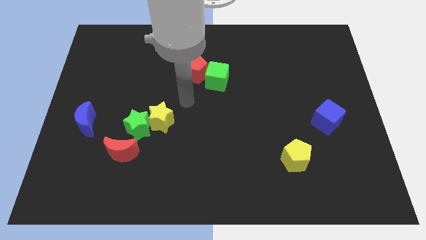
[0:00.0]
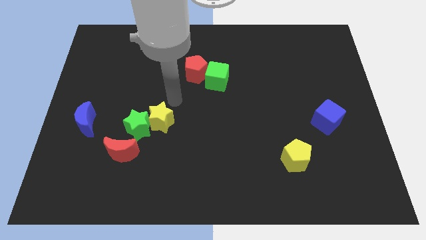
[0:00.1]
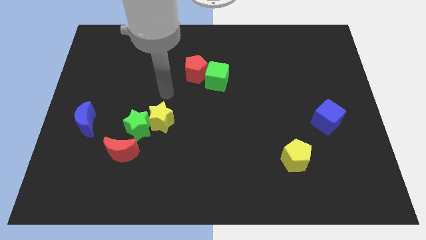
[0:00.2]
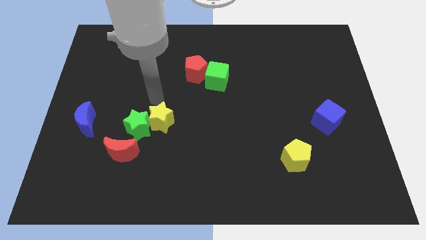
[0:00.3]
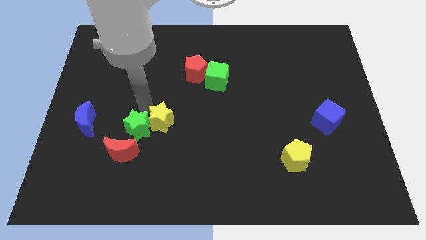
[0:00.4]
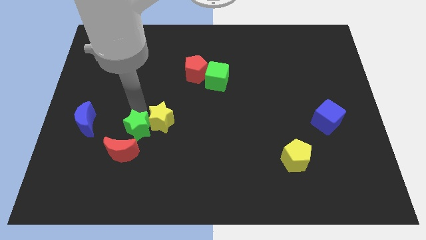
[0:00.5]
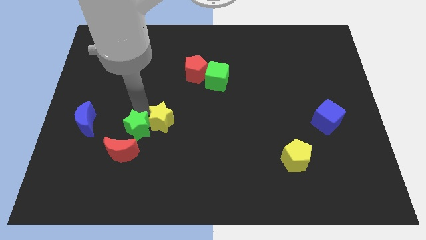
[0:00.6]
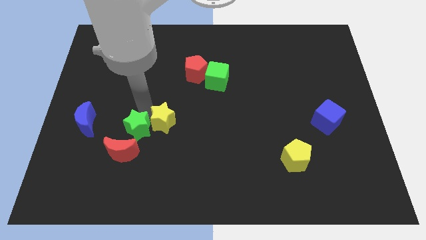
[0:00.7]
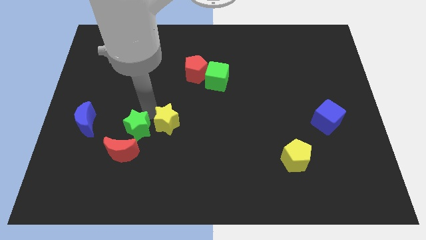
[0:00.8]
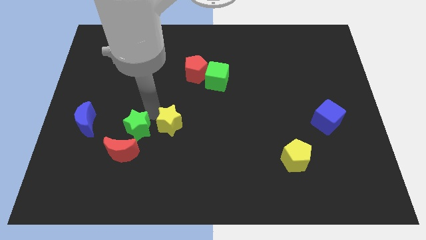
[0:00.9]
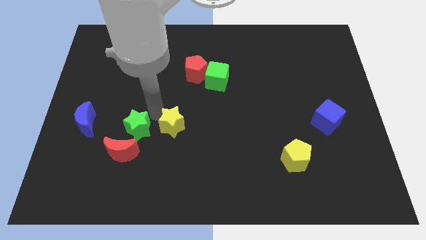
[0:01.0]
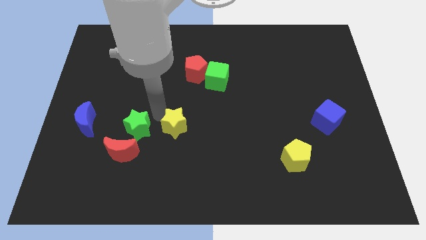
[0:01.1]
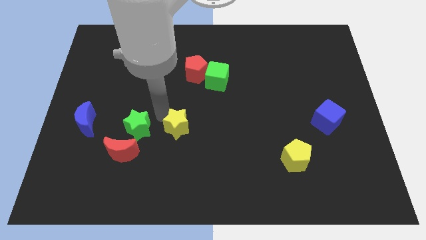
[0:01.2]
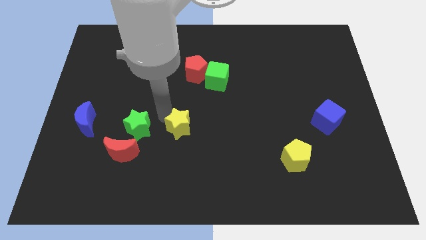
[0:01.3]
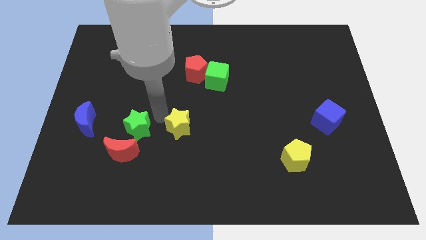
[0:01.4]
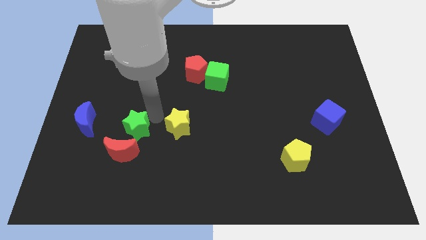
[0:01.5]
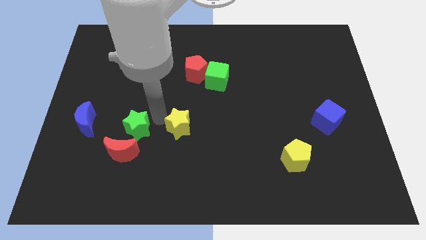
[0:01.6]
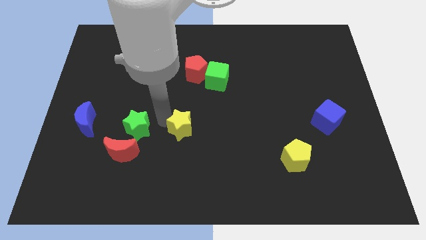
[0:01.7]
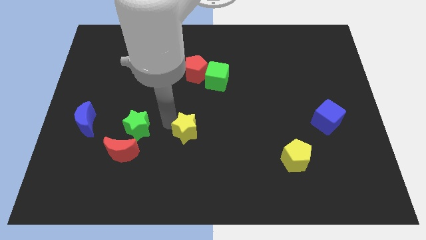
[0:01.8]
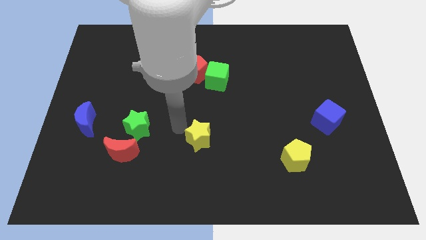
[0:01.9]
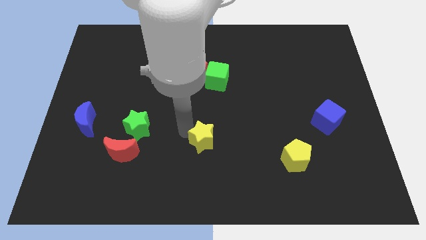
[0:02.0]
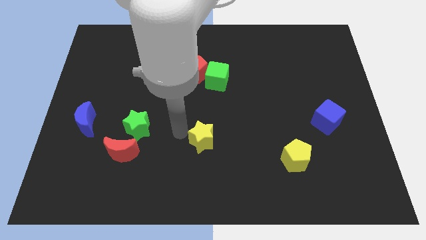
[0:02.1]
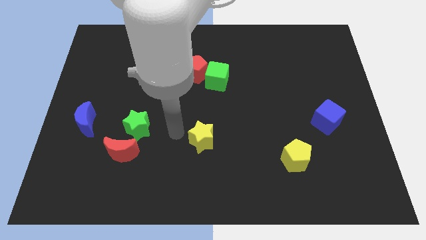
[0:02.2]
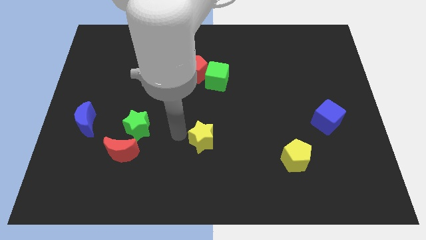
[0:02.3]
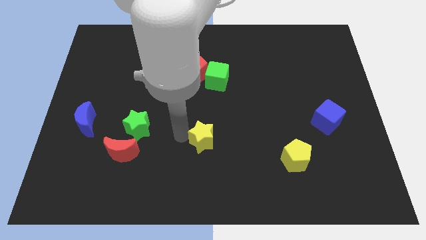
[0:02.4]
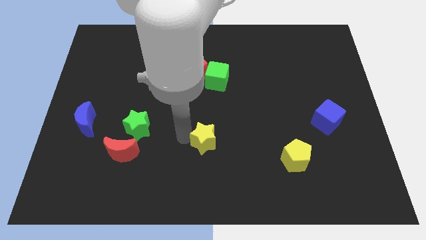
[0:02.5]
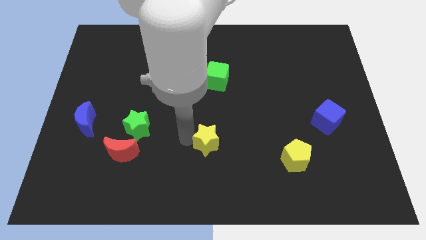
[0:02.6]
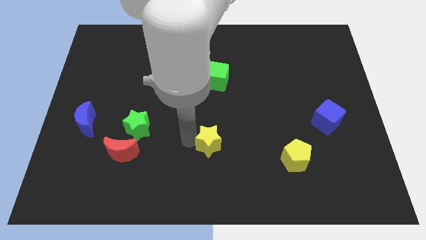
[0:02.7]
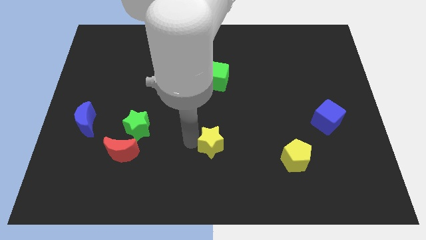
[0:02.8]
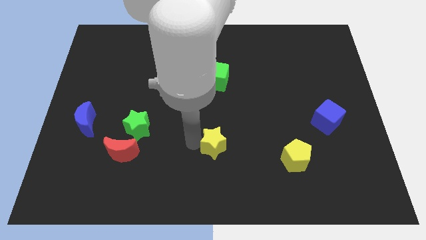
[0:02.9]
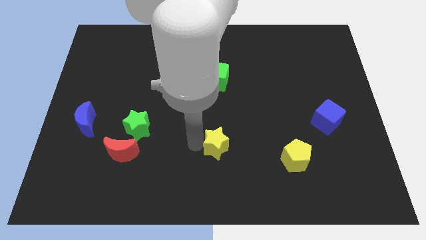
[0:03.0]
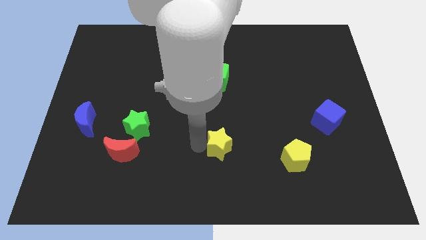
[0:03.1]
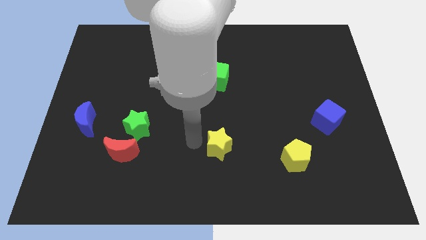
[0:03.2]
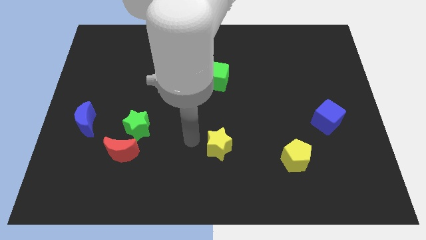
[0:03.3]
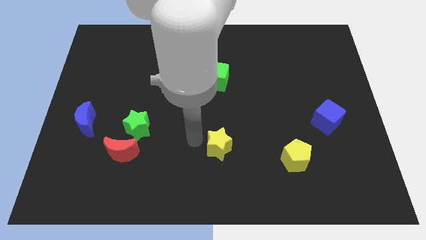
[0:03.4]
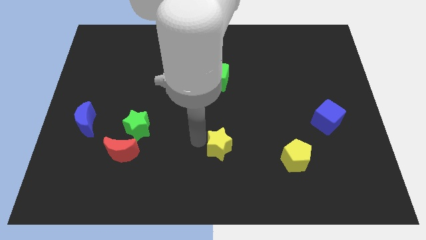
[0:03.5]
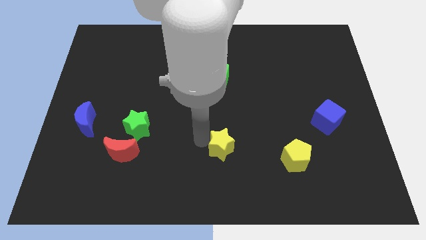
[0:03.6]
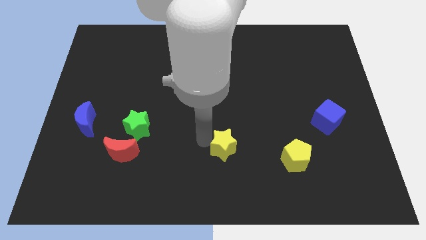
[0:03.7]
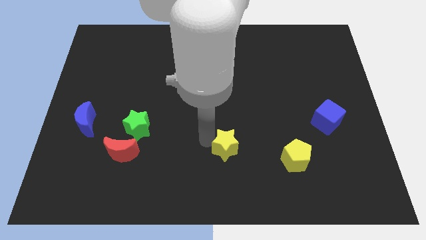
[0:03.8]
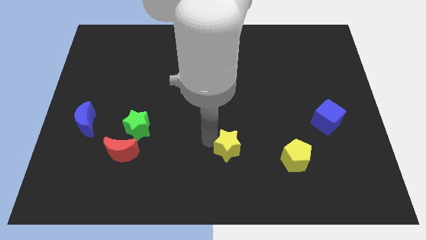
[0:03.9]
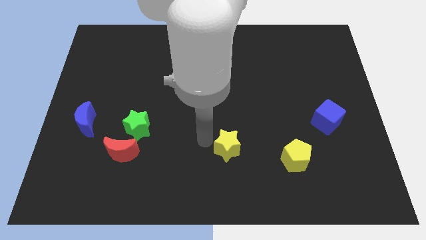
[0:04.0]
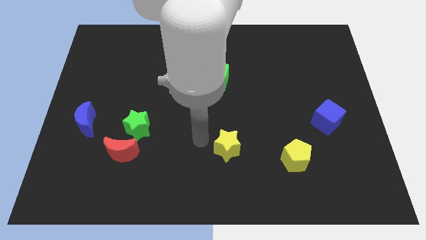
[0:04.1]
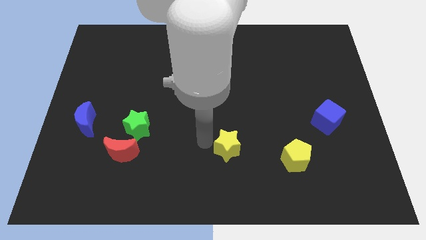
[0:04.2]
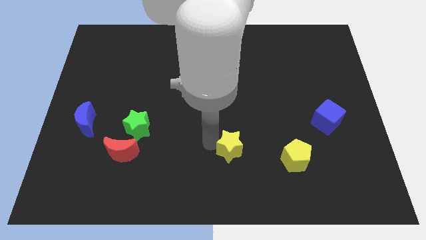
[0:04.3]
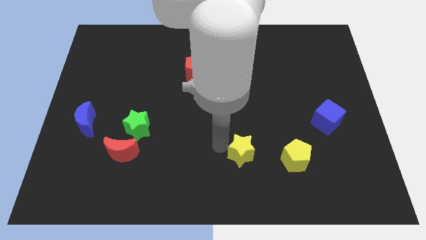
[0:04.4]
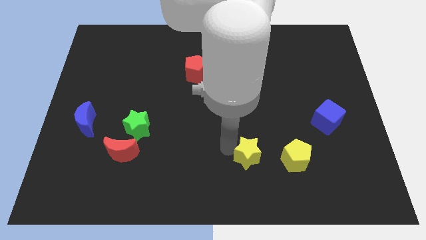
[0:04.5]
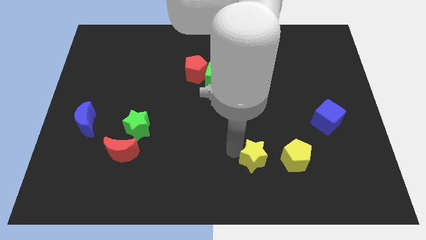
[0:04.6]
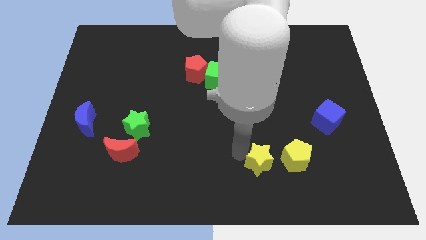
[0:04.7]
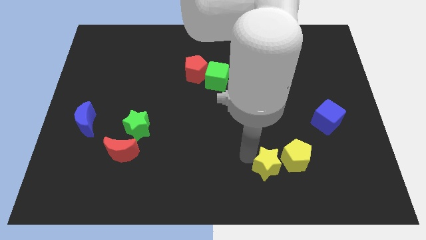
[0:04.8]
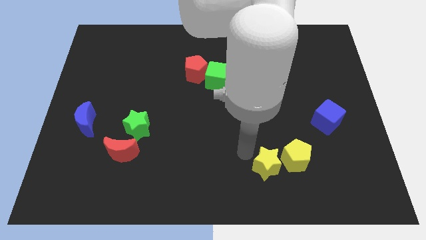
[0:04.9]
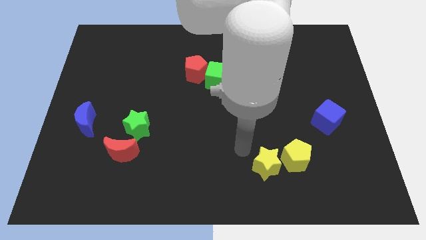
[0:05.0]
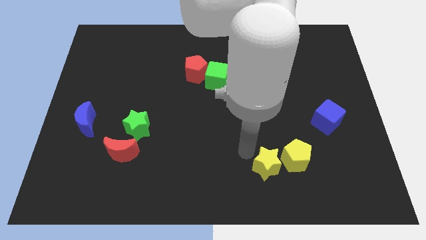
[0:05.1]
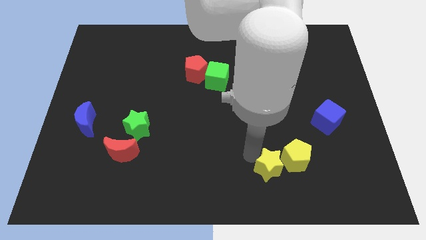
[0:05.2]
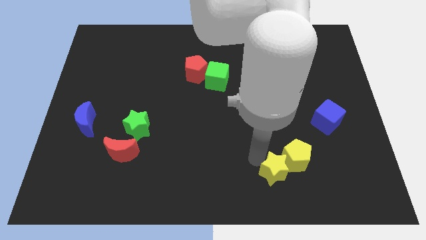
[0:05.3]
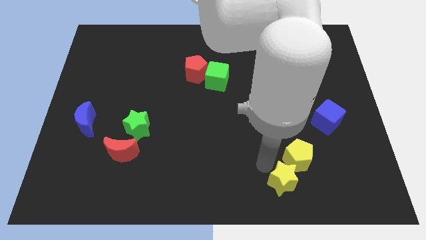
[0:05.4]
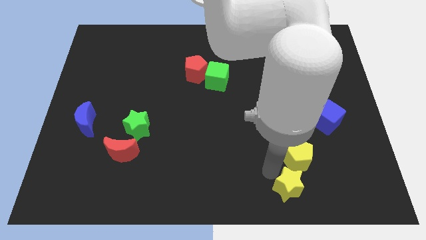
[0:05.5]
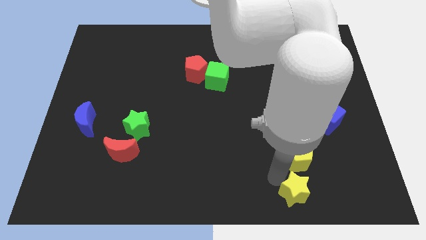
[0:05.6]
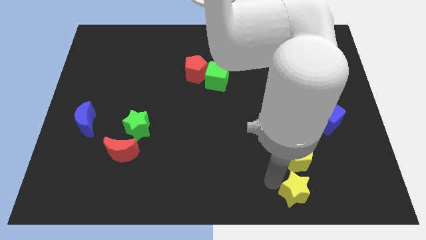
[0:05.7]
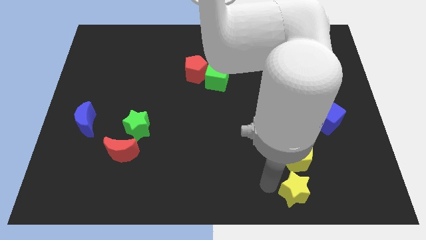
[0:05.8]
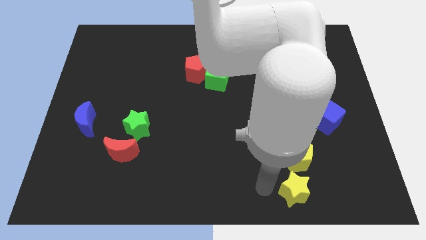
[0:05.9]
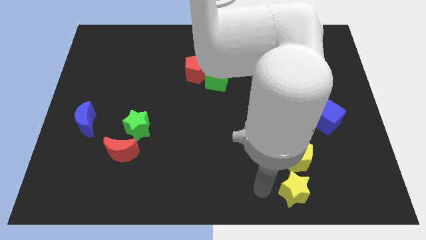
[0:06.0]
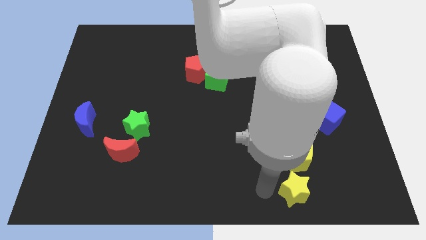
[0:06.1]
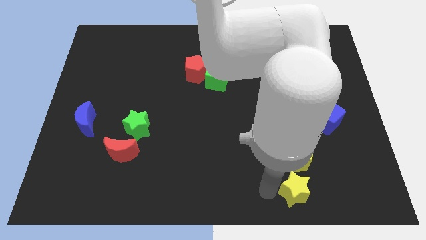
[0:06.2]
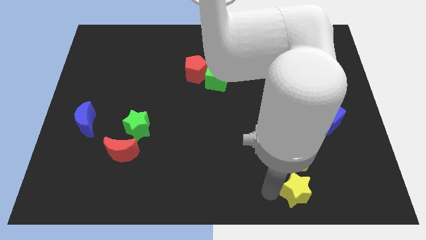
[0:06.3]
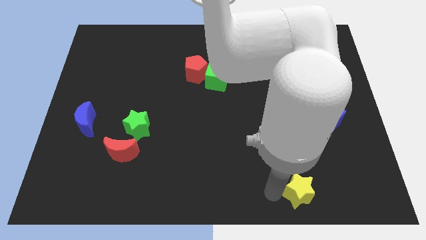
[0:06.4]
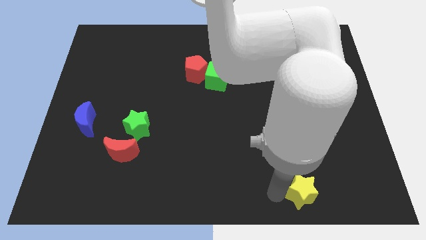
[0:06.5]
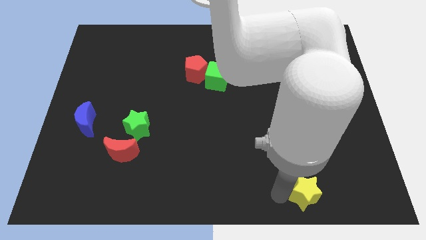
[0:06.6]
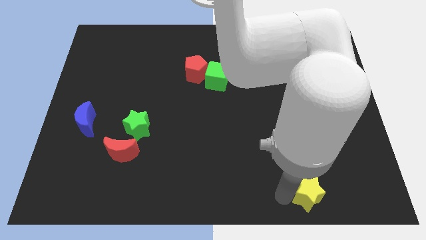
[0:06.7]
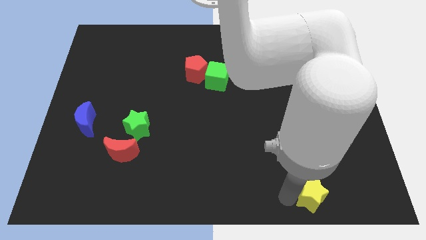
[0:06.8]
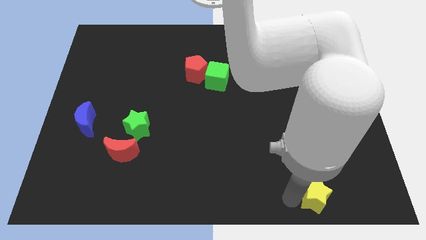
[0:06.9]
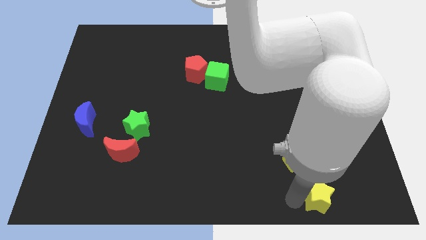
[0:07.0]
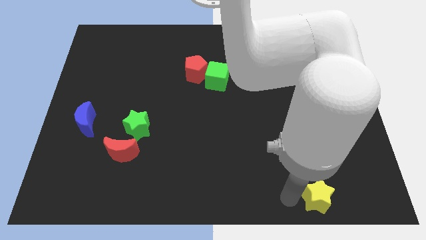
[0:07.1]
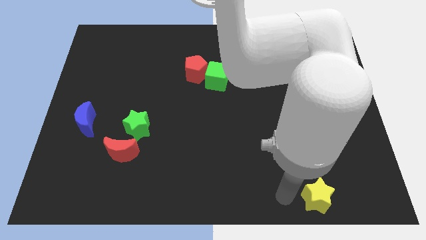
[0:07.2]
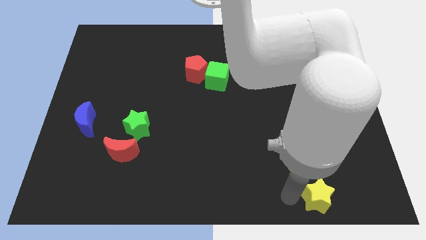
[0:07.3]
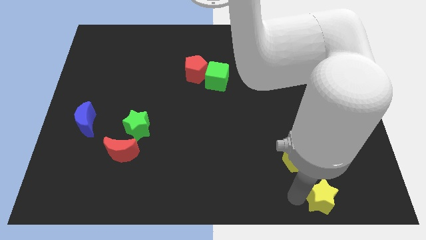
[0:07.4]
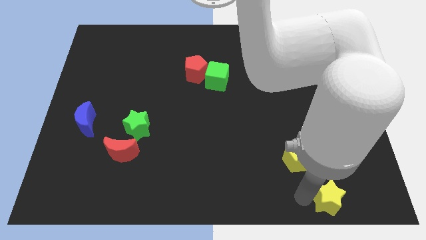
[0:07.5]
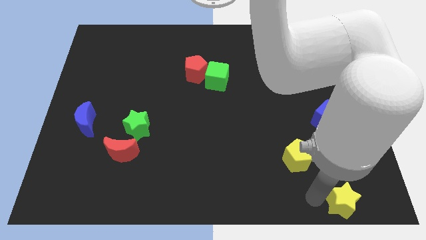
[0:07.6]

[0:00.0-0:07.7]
slide the yellow star to the bottom right of the board
